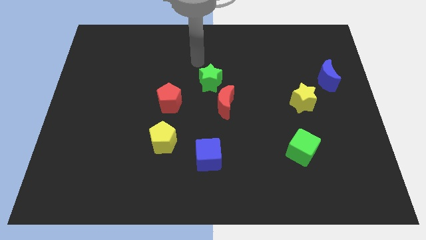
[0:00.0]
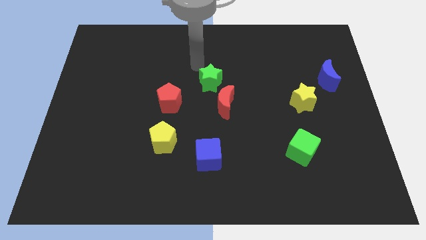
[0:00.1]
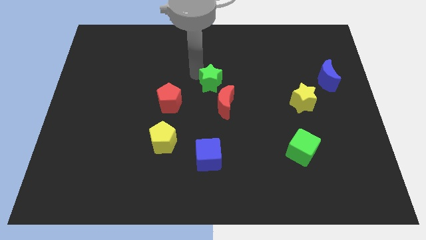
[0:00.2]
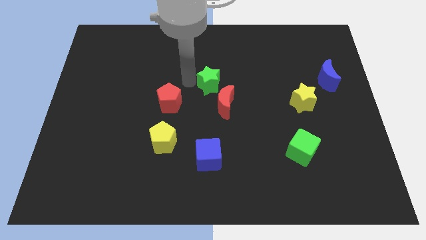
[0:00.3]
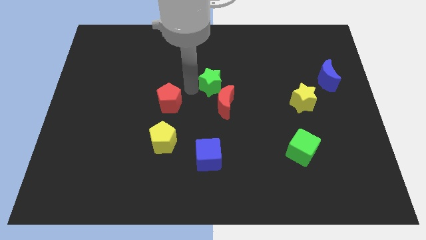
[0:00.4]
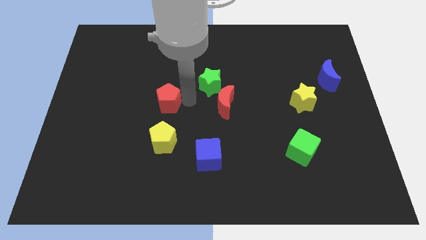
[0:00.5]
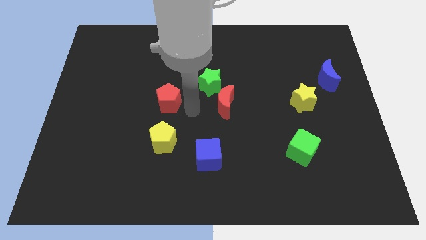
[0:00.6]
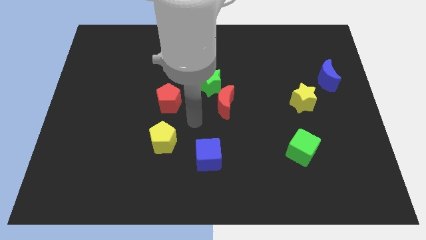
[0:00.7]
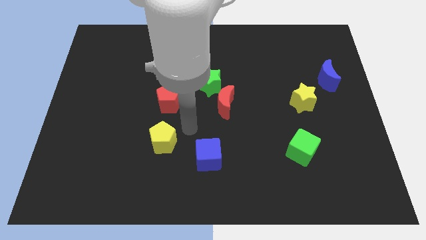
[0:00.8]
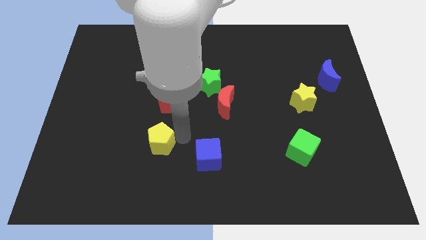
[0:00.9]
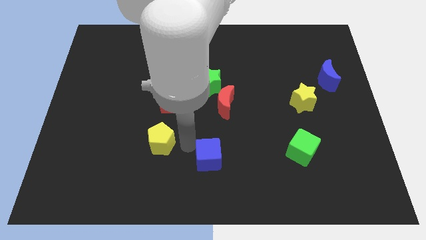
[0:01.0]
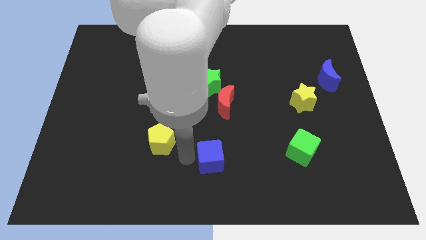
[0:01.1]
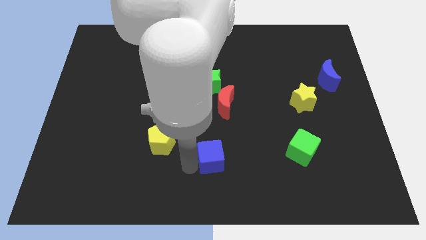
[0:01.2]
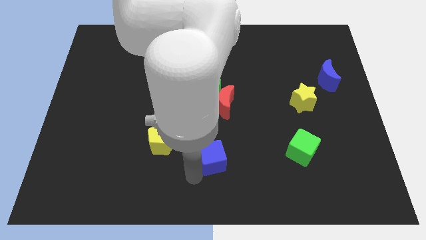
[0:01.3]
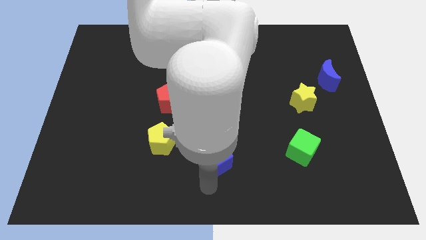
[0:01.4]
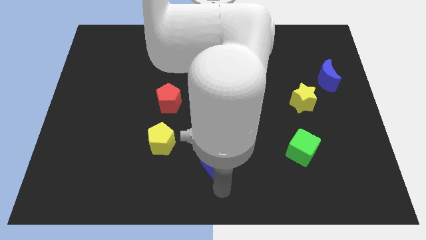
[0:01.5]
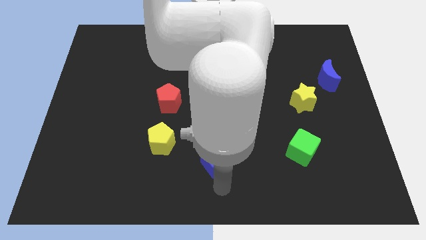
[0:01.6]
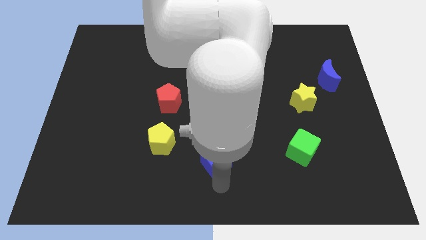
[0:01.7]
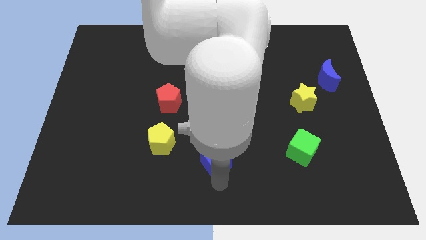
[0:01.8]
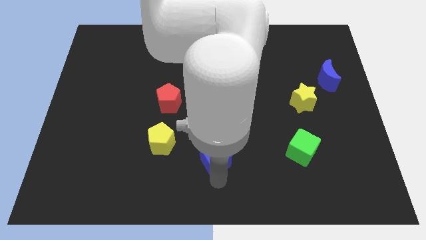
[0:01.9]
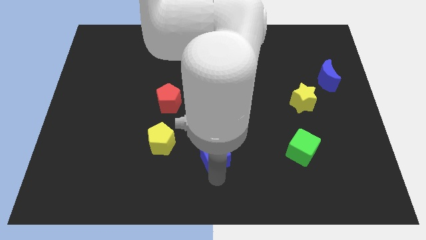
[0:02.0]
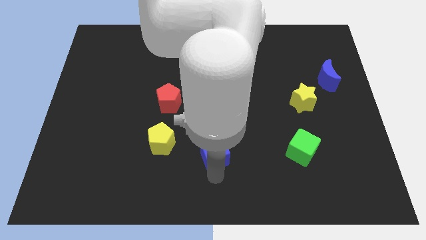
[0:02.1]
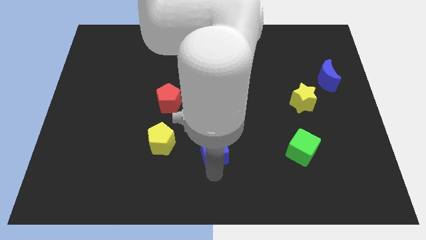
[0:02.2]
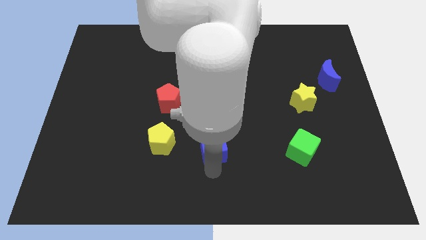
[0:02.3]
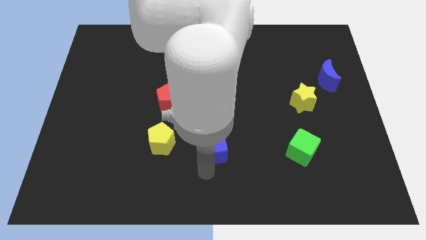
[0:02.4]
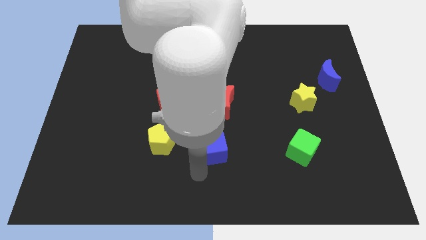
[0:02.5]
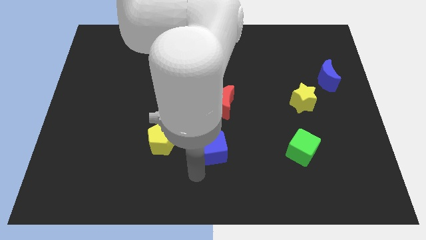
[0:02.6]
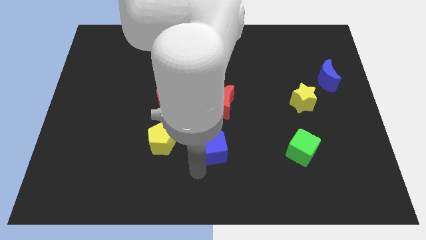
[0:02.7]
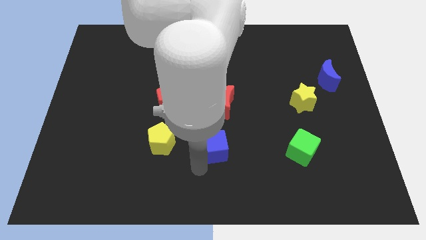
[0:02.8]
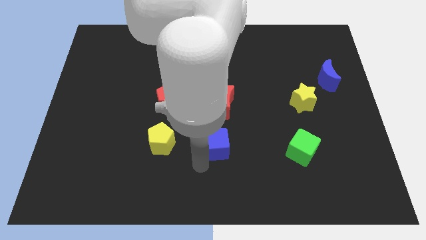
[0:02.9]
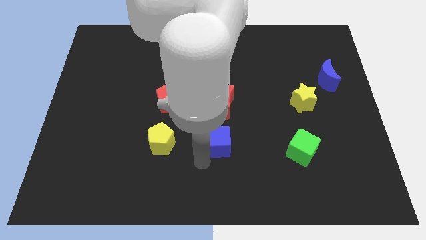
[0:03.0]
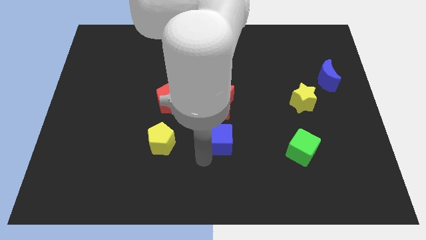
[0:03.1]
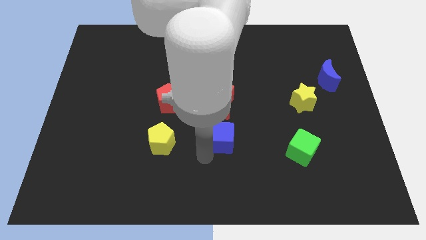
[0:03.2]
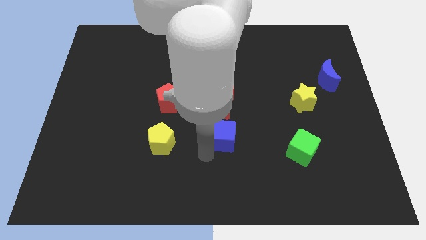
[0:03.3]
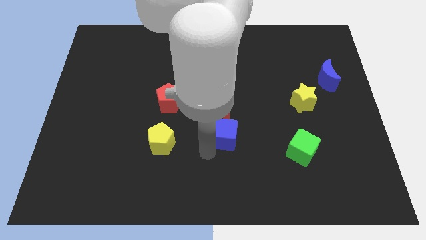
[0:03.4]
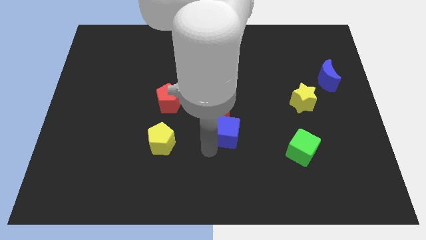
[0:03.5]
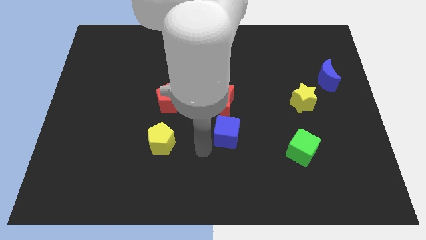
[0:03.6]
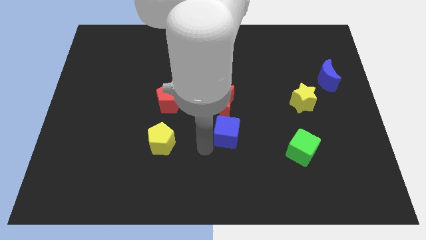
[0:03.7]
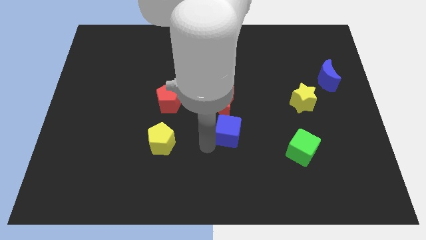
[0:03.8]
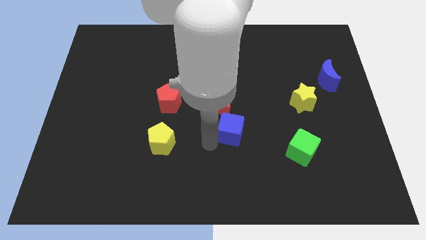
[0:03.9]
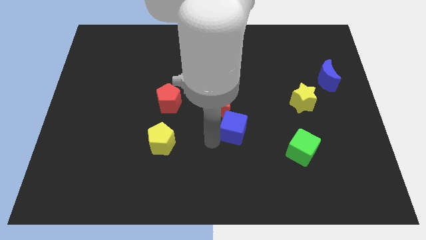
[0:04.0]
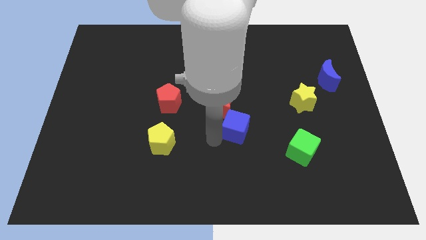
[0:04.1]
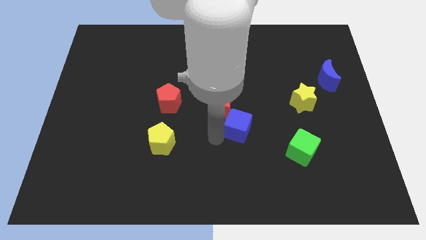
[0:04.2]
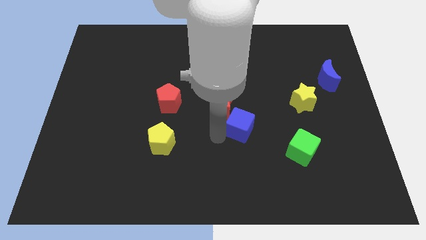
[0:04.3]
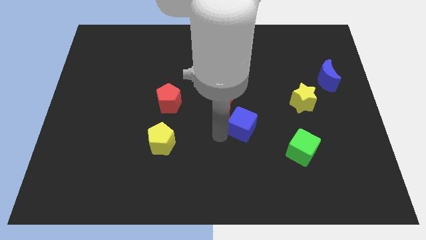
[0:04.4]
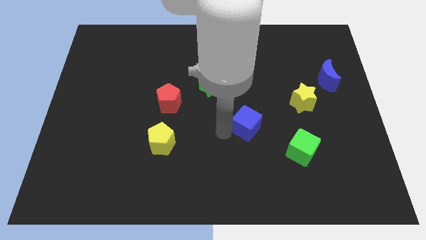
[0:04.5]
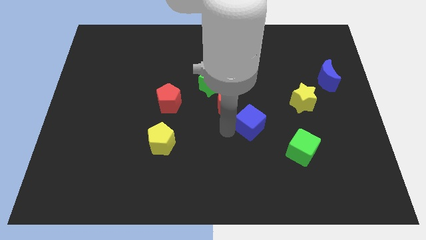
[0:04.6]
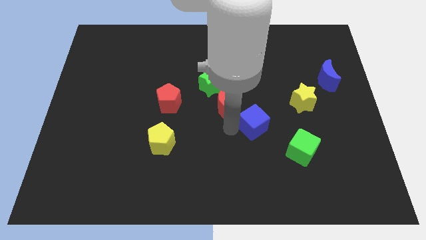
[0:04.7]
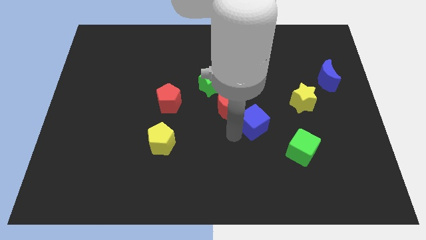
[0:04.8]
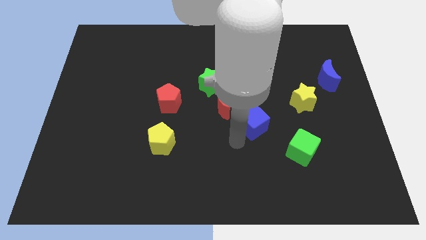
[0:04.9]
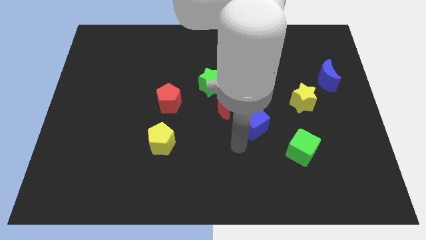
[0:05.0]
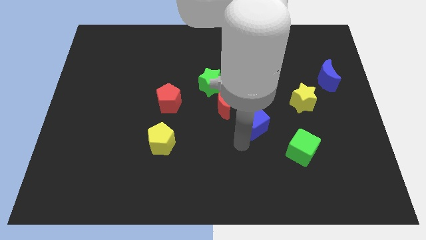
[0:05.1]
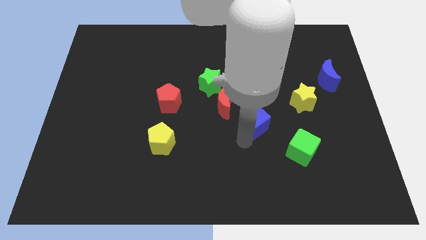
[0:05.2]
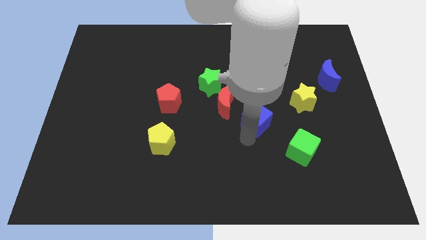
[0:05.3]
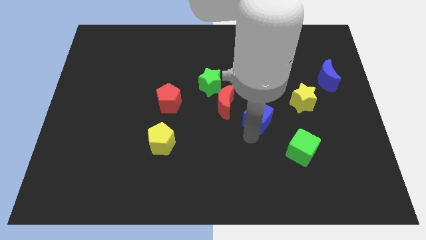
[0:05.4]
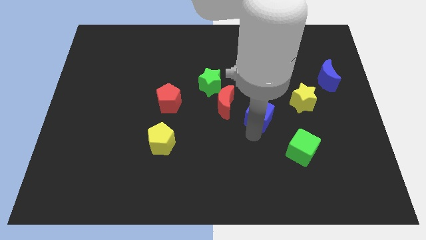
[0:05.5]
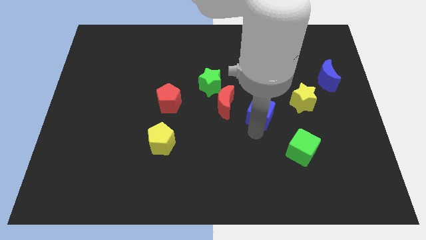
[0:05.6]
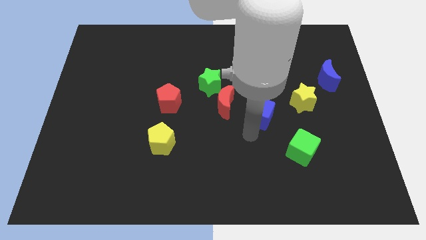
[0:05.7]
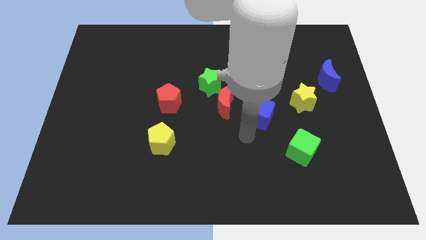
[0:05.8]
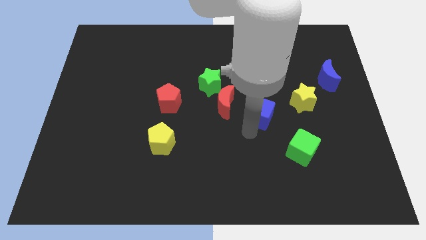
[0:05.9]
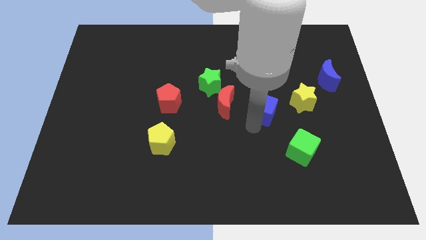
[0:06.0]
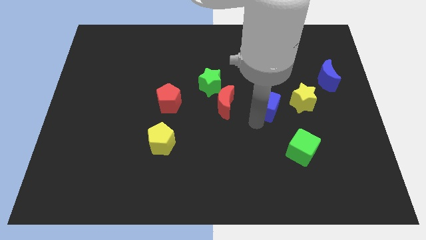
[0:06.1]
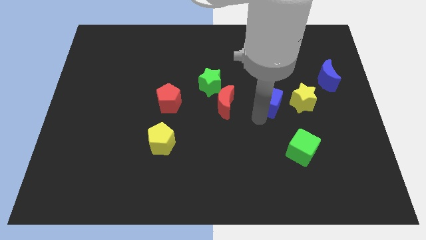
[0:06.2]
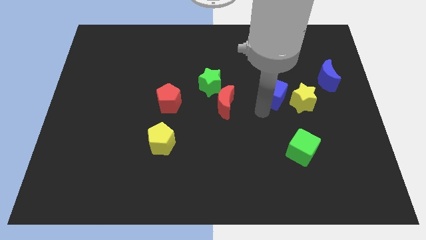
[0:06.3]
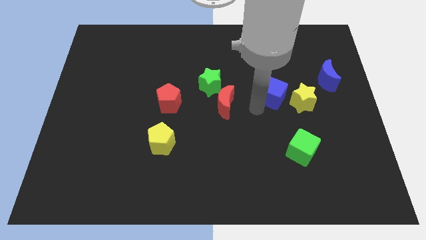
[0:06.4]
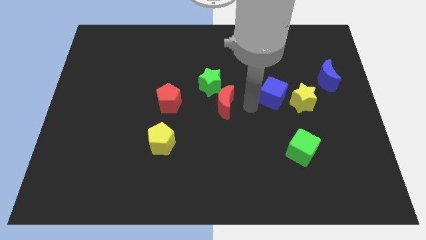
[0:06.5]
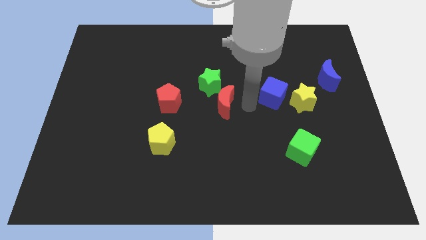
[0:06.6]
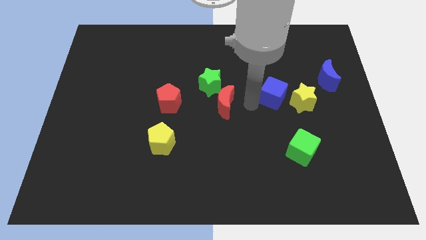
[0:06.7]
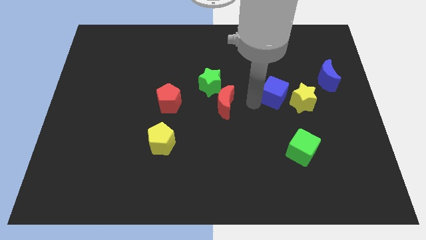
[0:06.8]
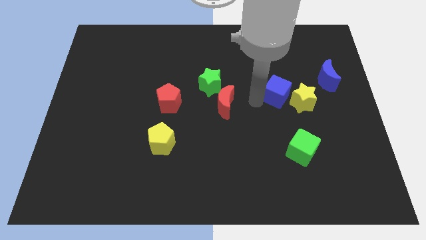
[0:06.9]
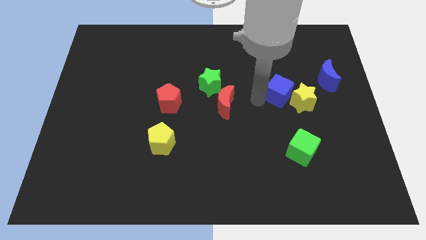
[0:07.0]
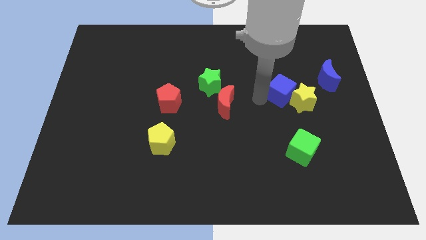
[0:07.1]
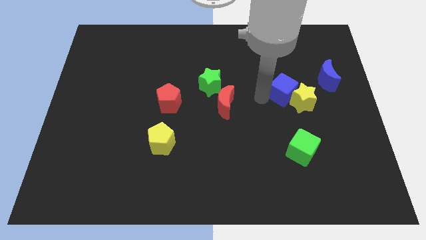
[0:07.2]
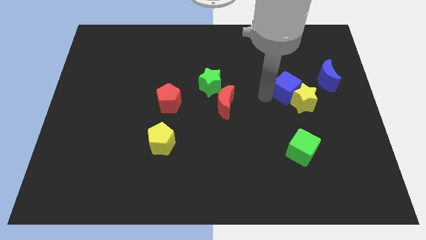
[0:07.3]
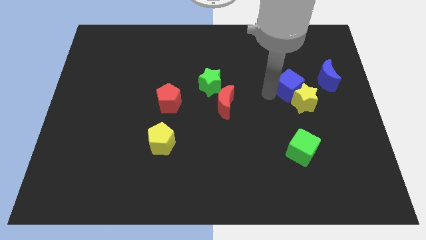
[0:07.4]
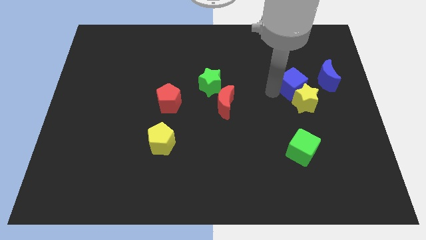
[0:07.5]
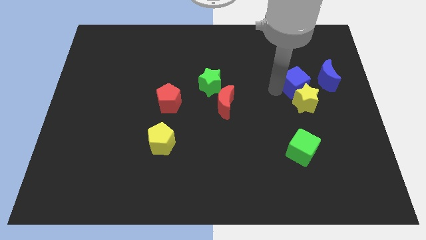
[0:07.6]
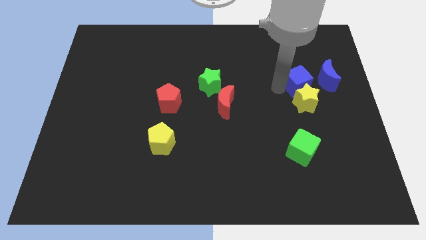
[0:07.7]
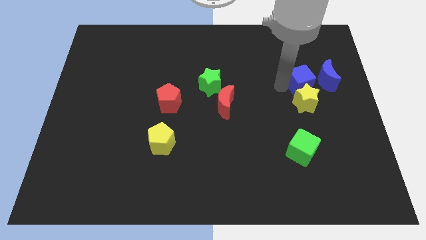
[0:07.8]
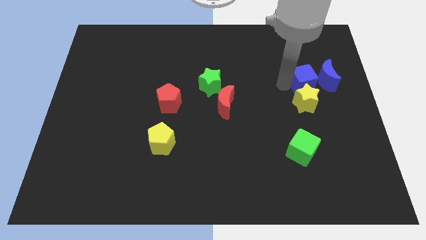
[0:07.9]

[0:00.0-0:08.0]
push the blue cube towards the blue moon
